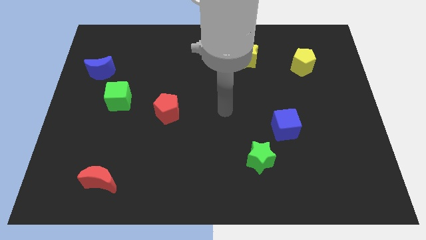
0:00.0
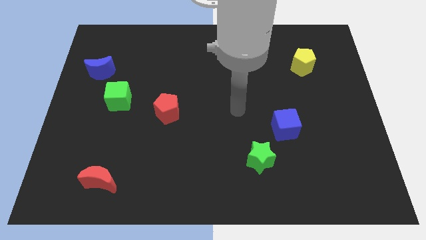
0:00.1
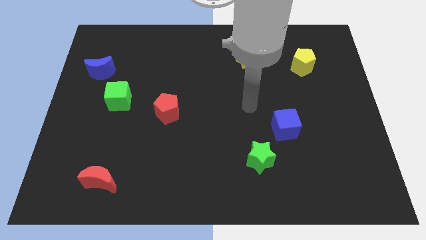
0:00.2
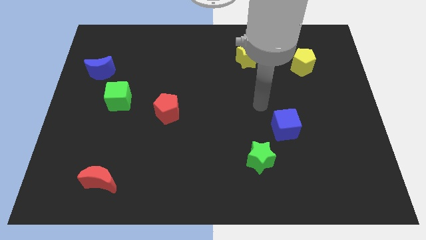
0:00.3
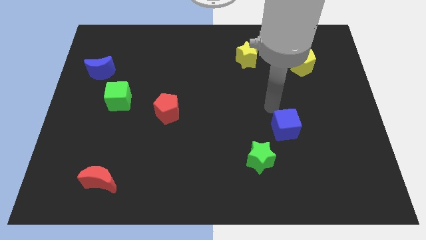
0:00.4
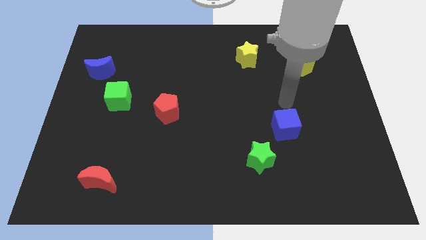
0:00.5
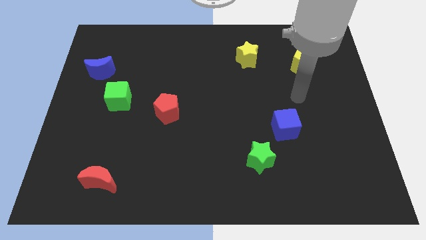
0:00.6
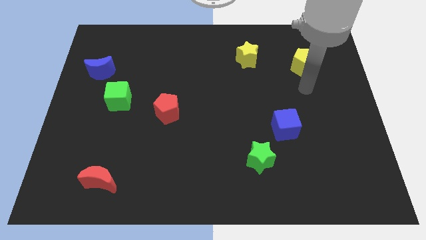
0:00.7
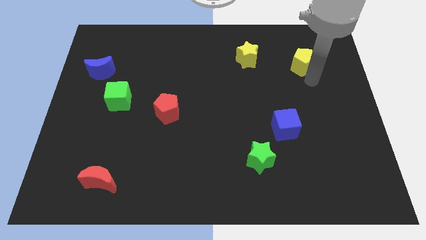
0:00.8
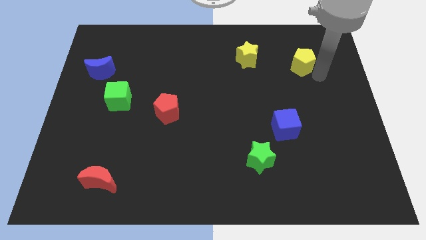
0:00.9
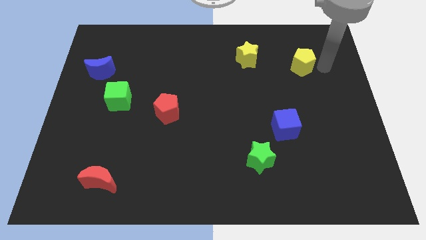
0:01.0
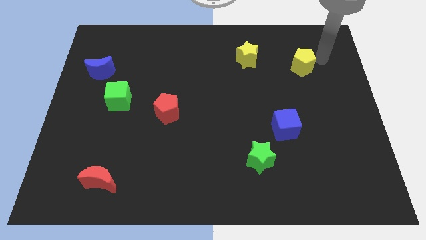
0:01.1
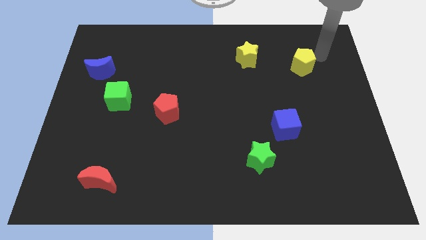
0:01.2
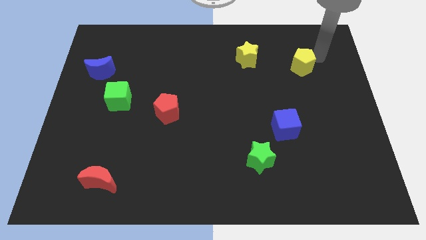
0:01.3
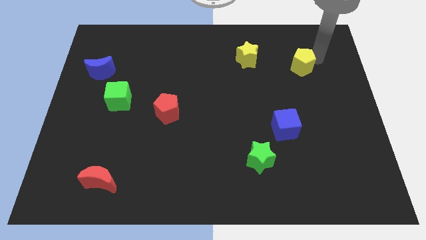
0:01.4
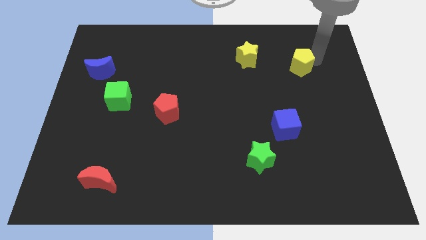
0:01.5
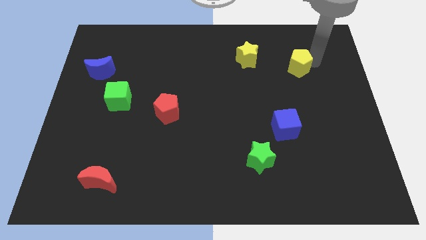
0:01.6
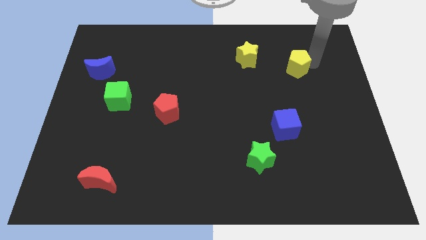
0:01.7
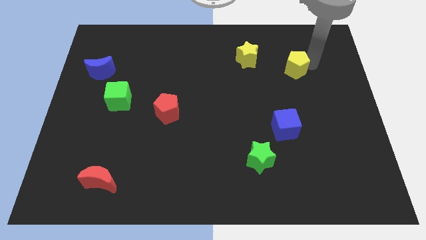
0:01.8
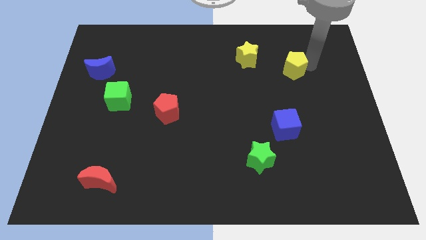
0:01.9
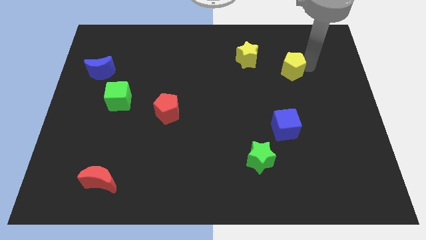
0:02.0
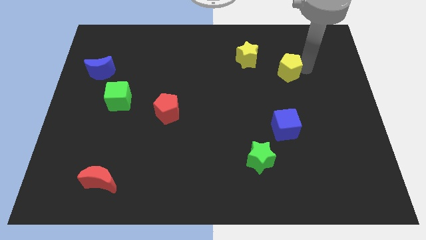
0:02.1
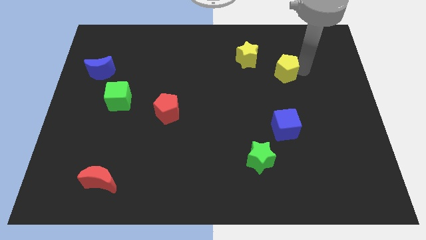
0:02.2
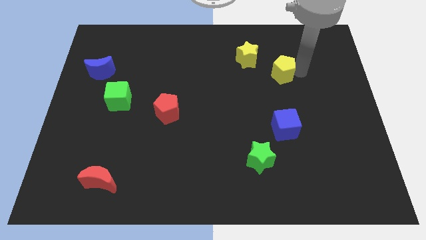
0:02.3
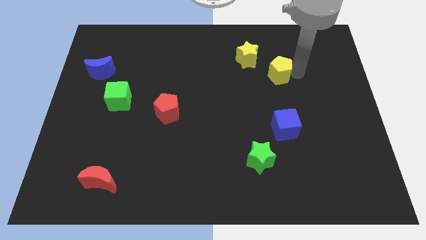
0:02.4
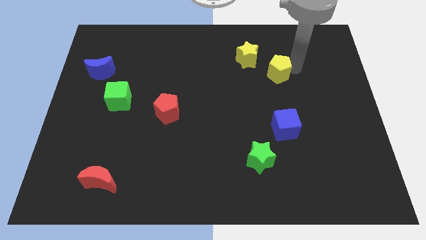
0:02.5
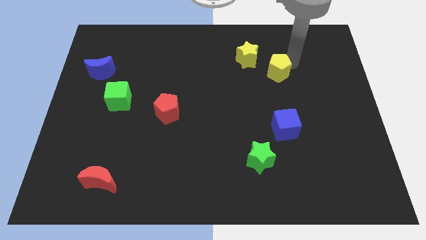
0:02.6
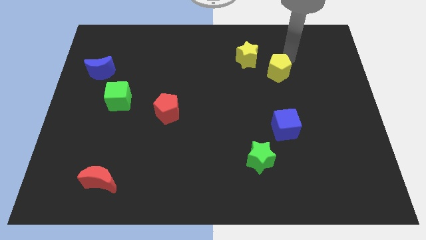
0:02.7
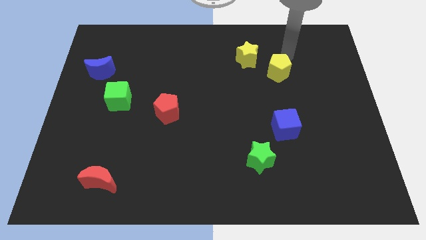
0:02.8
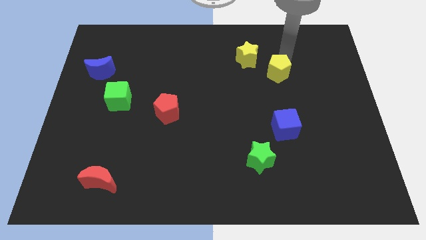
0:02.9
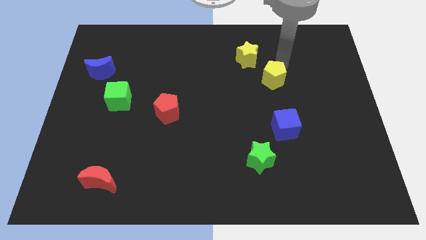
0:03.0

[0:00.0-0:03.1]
move the yellow pentagon somewhat down and then left

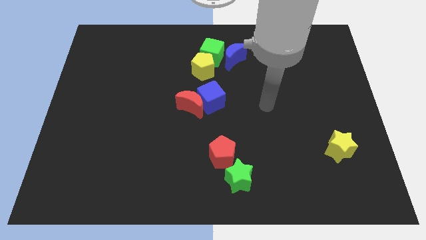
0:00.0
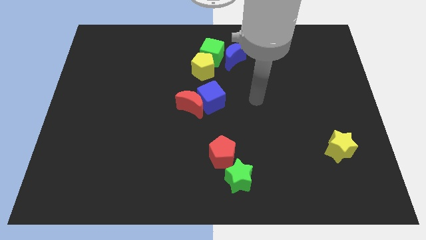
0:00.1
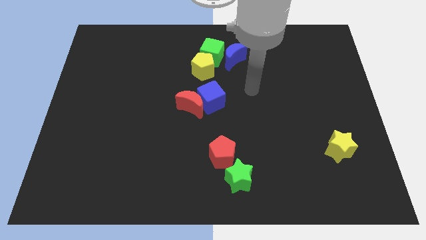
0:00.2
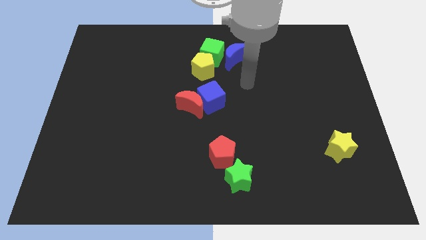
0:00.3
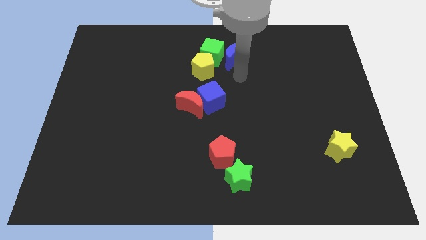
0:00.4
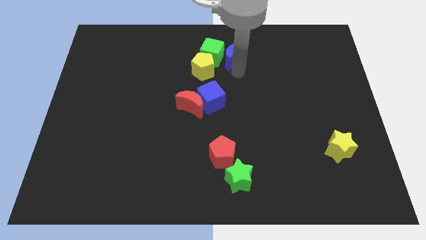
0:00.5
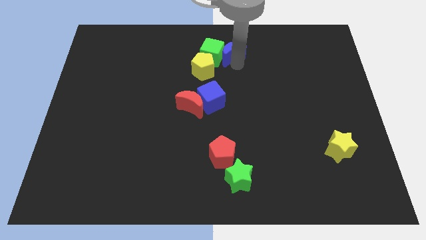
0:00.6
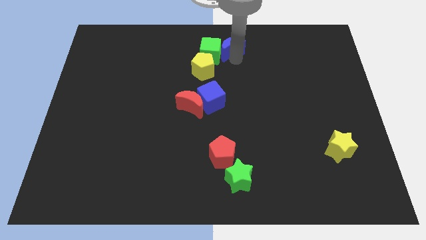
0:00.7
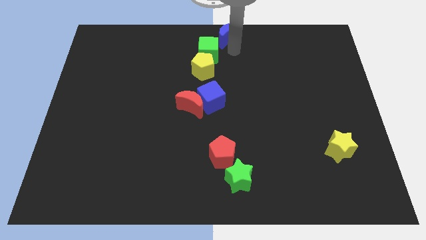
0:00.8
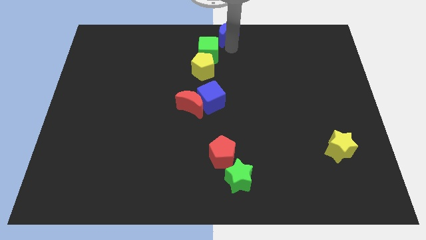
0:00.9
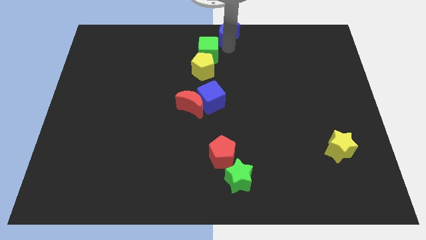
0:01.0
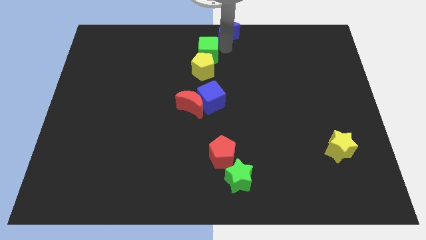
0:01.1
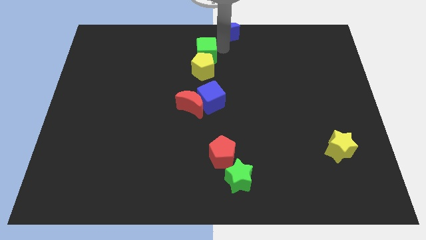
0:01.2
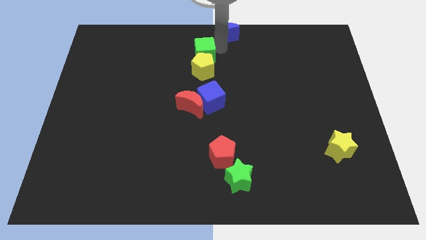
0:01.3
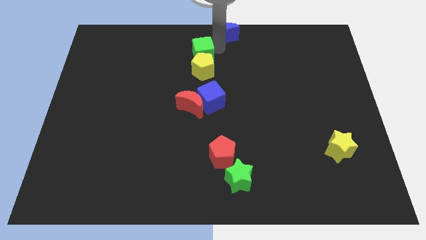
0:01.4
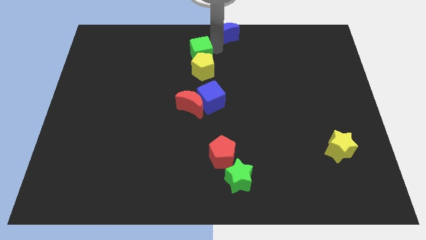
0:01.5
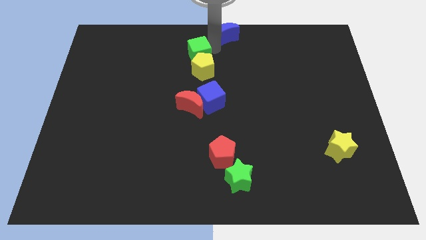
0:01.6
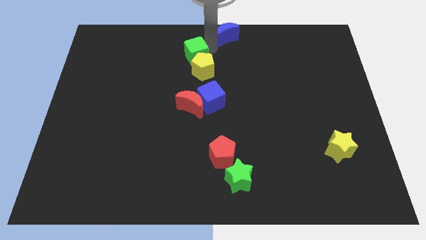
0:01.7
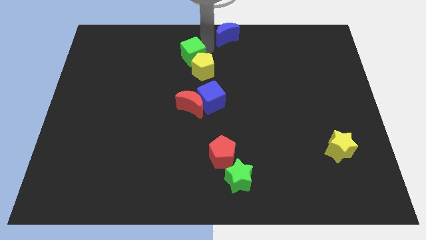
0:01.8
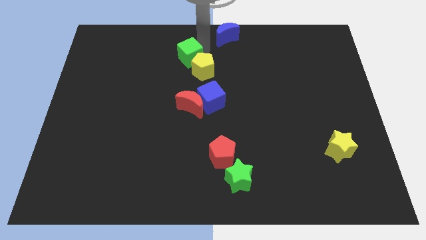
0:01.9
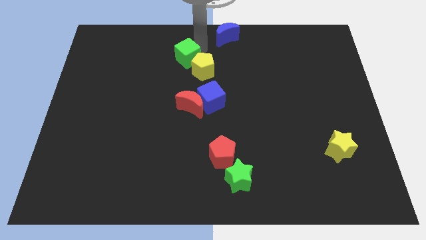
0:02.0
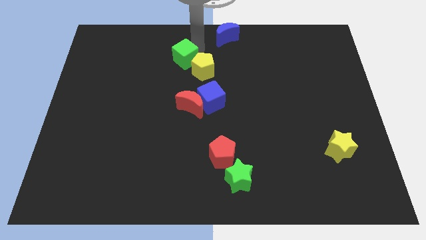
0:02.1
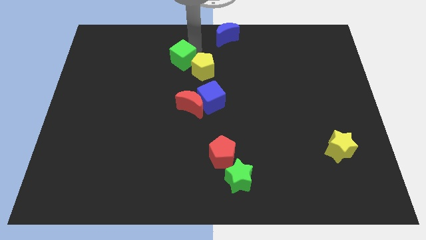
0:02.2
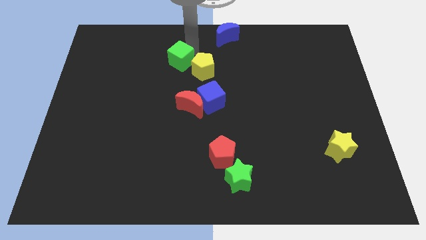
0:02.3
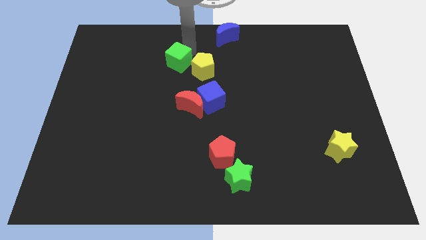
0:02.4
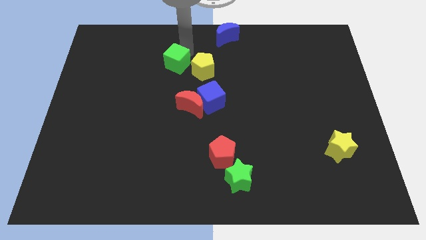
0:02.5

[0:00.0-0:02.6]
slightly move the green cube diagonally downwards and left

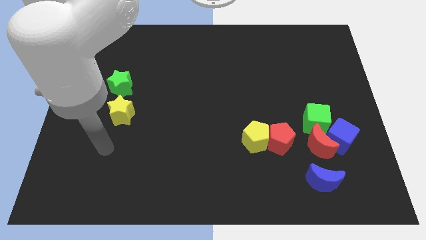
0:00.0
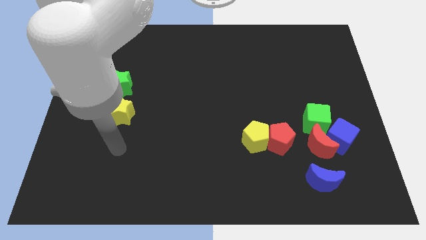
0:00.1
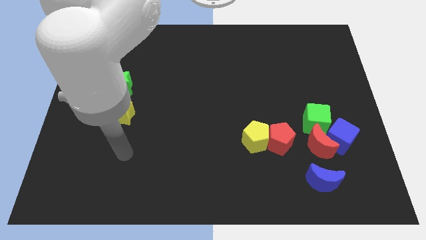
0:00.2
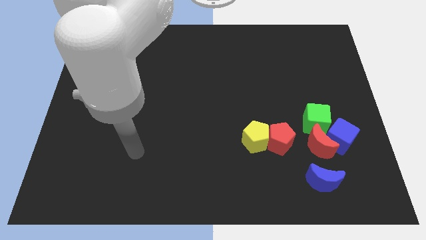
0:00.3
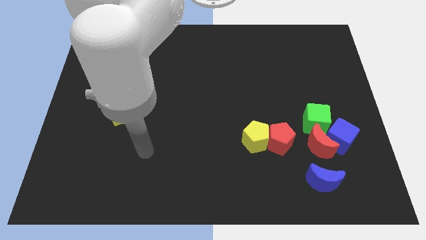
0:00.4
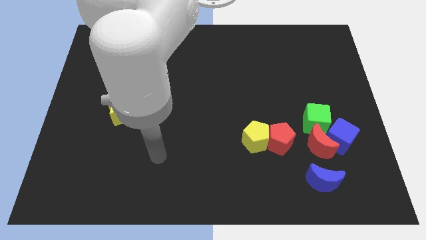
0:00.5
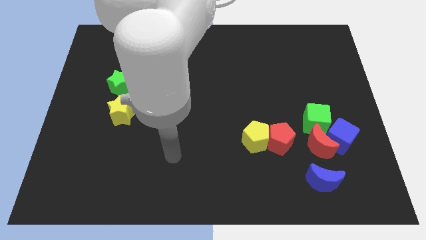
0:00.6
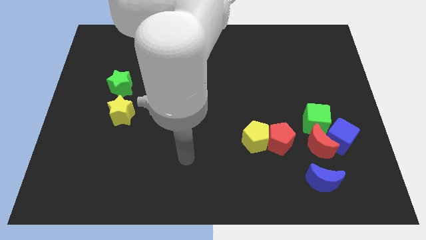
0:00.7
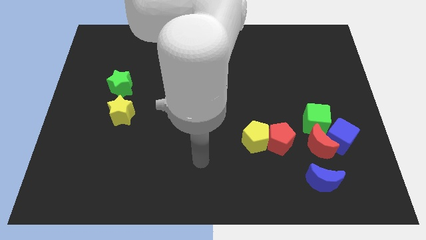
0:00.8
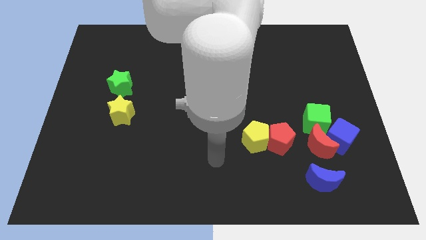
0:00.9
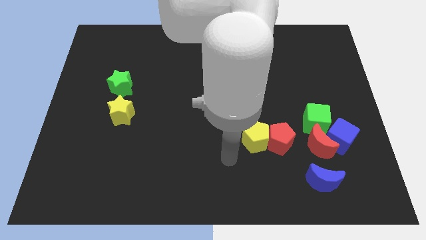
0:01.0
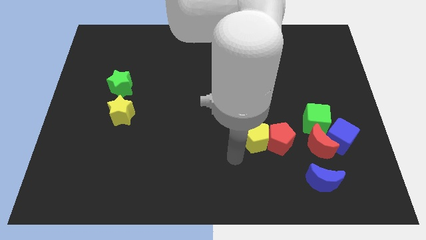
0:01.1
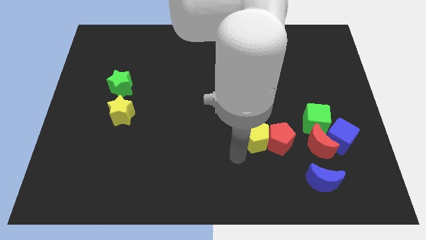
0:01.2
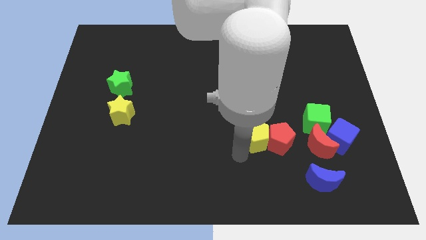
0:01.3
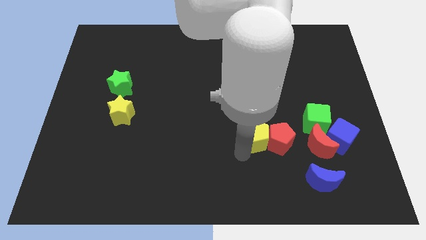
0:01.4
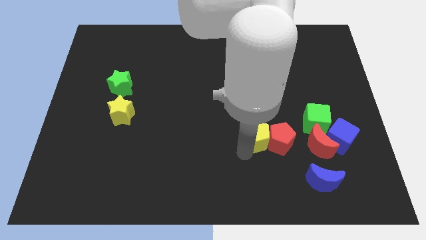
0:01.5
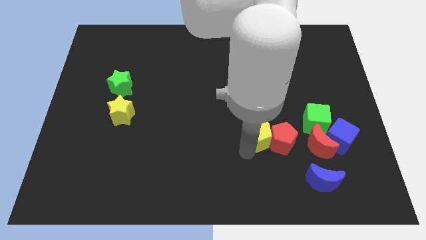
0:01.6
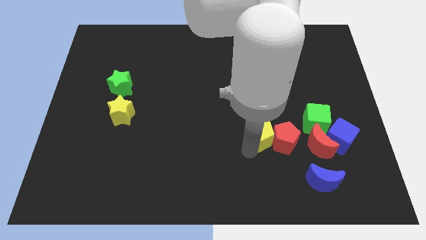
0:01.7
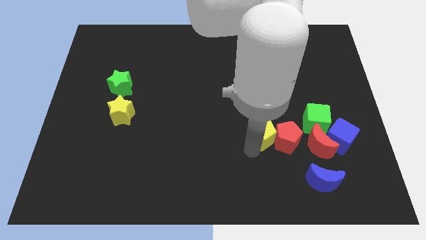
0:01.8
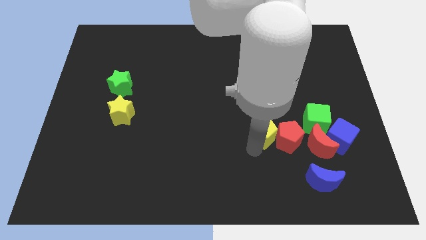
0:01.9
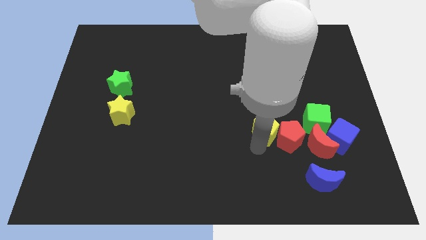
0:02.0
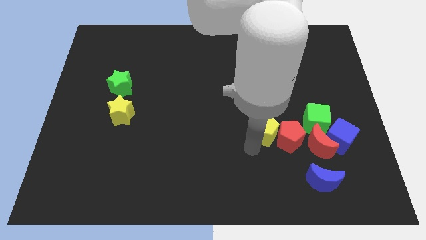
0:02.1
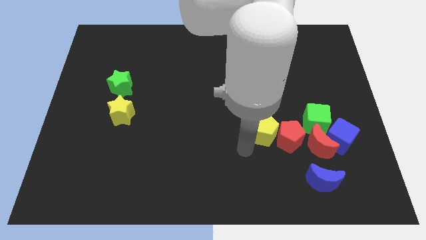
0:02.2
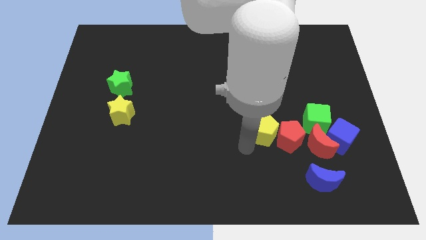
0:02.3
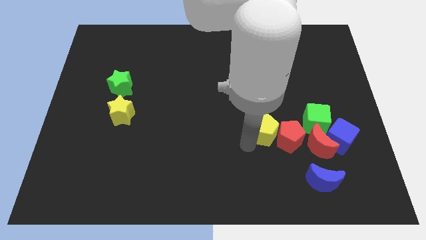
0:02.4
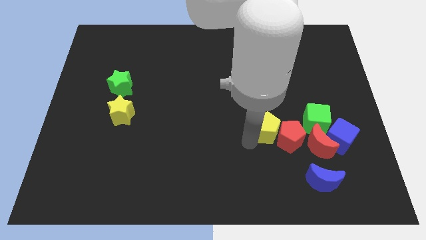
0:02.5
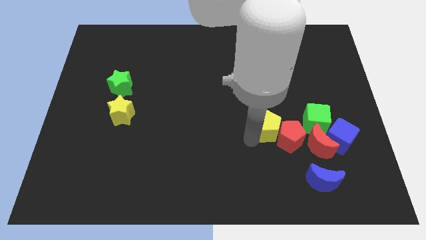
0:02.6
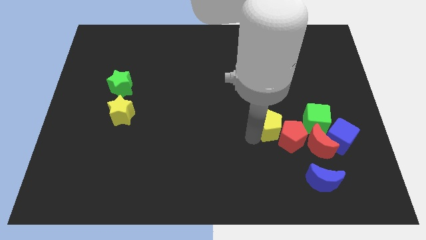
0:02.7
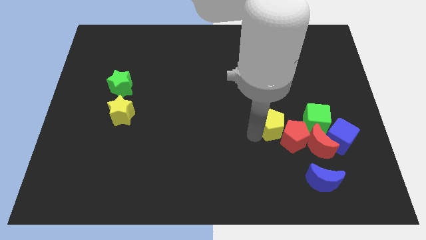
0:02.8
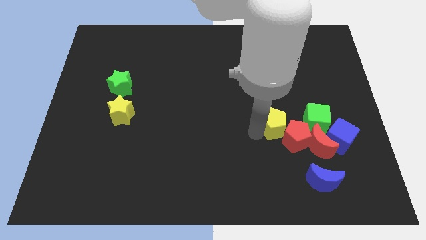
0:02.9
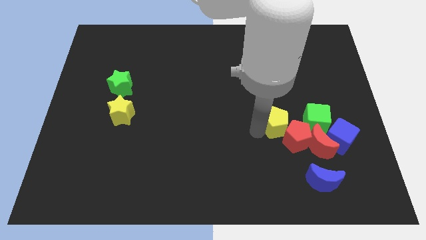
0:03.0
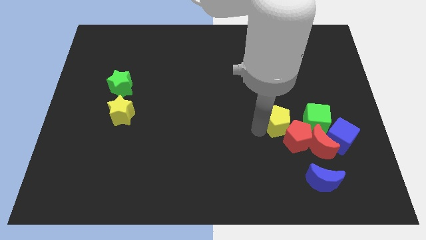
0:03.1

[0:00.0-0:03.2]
slide the yellow pentagon somewhat up and then to the right
